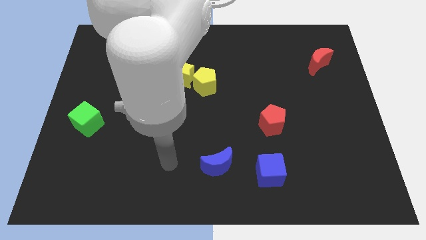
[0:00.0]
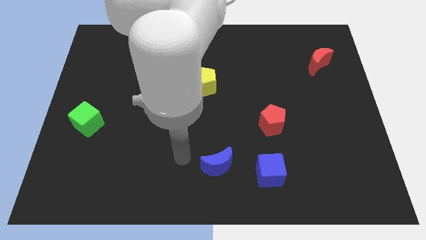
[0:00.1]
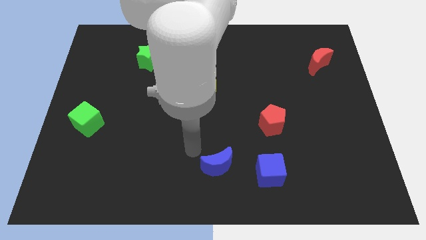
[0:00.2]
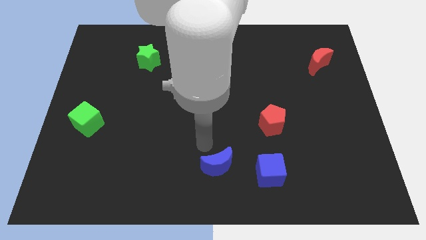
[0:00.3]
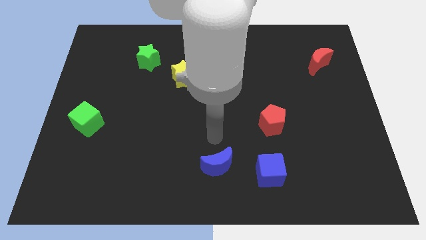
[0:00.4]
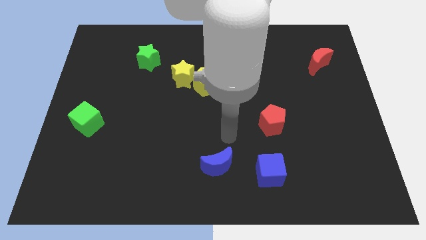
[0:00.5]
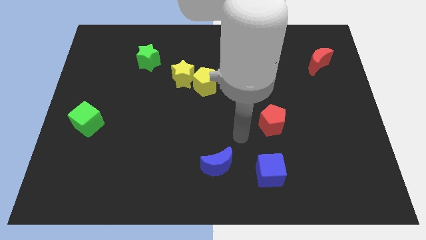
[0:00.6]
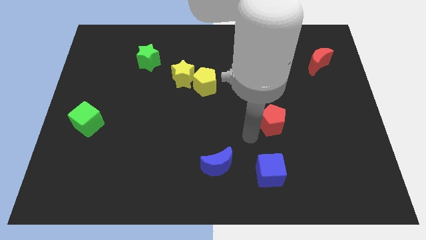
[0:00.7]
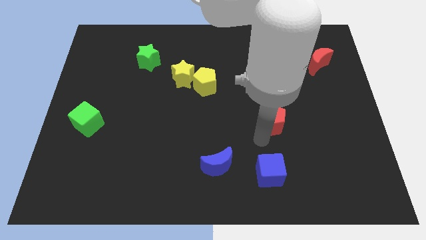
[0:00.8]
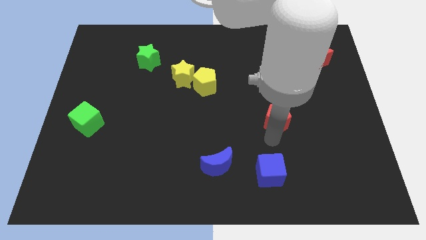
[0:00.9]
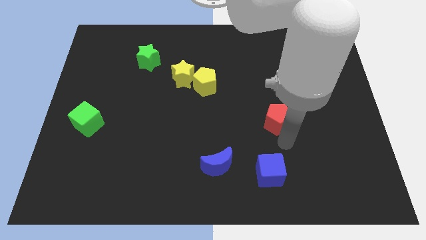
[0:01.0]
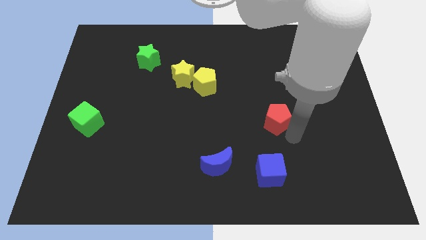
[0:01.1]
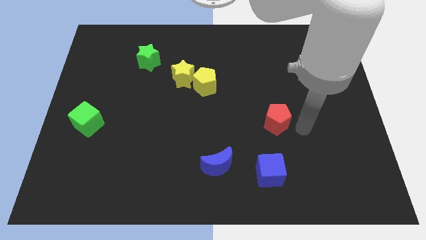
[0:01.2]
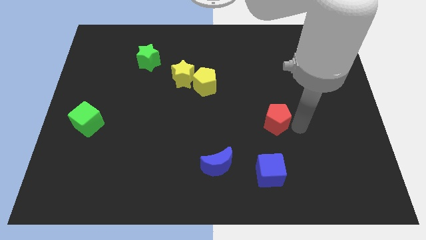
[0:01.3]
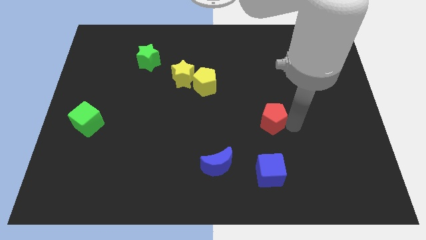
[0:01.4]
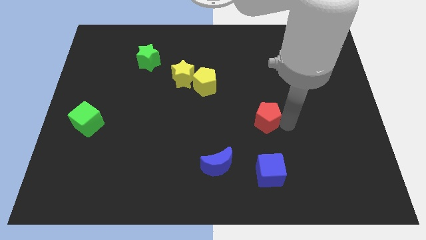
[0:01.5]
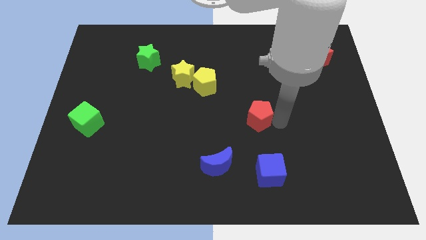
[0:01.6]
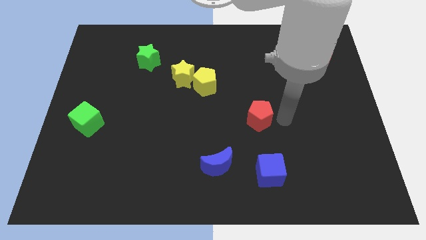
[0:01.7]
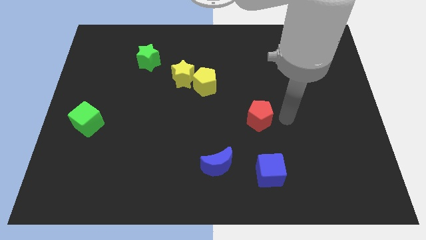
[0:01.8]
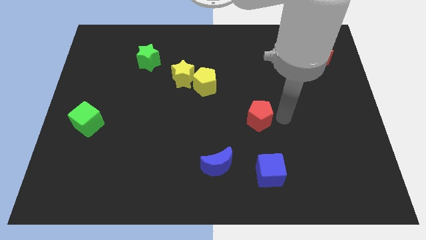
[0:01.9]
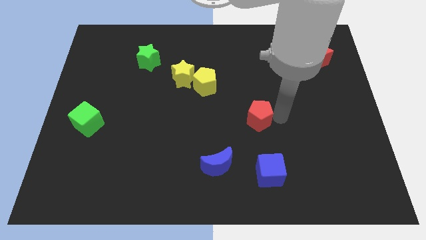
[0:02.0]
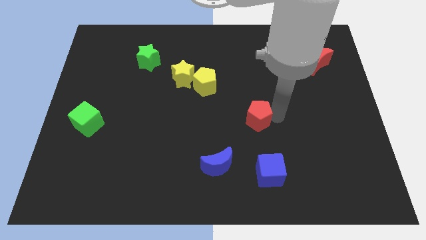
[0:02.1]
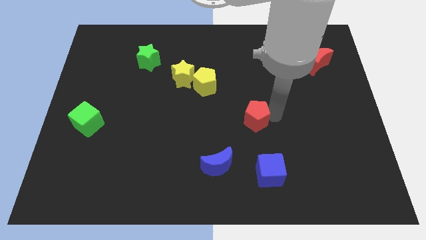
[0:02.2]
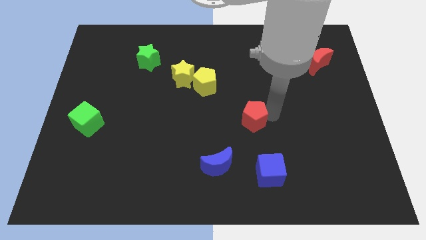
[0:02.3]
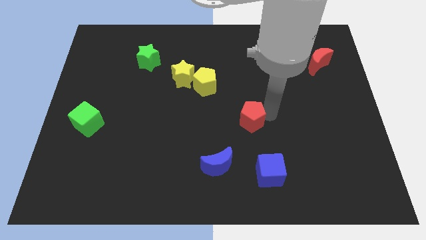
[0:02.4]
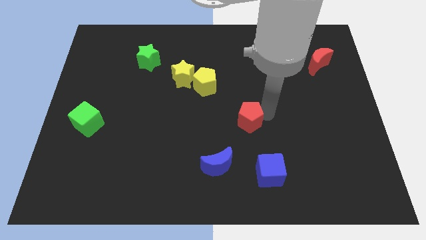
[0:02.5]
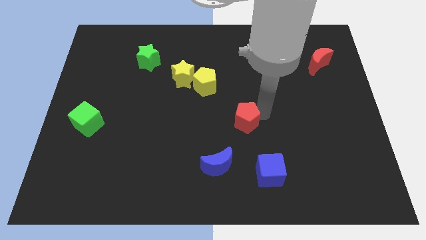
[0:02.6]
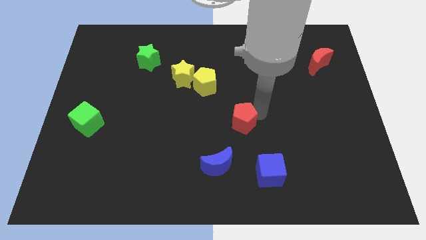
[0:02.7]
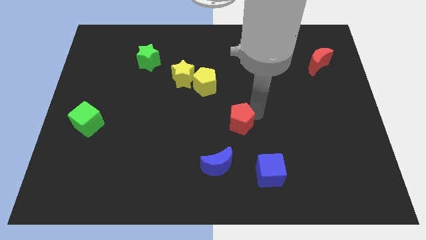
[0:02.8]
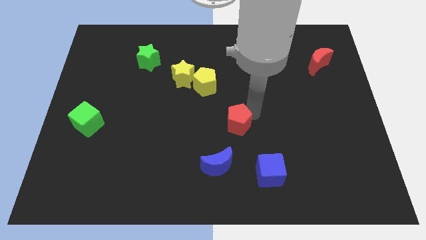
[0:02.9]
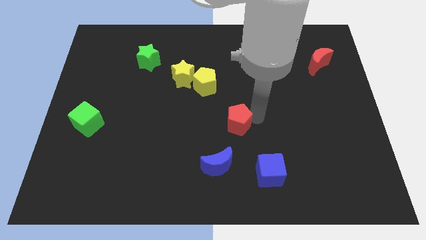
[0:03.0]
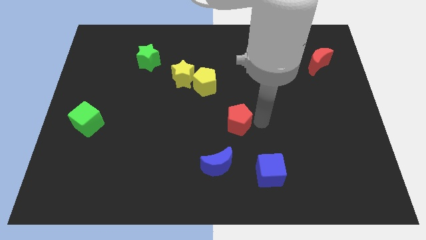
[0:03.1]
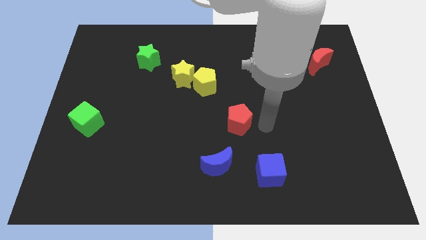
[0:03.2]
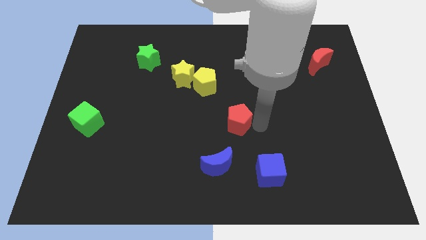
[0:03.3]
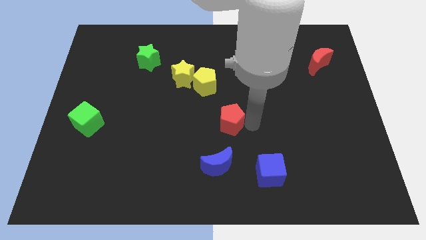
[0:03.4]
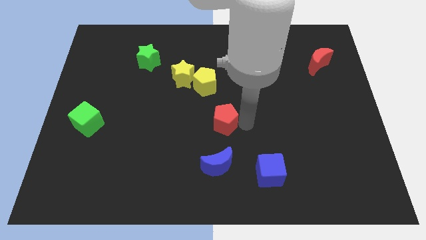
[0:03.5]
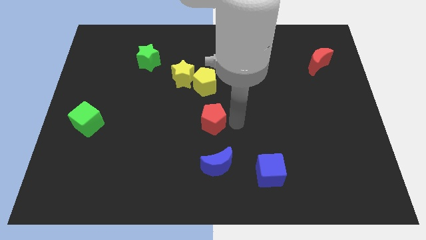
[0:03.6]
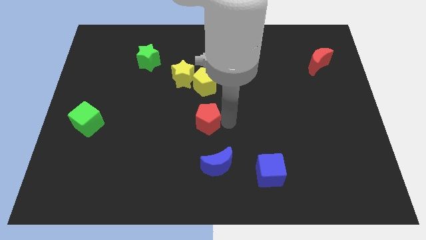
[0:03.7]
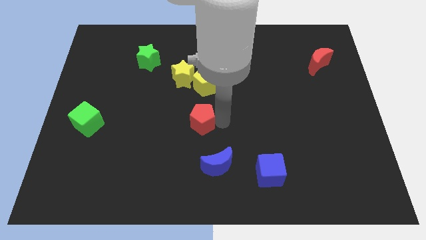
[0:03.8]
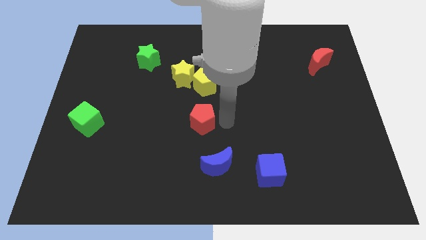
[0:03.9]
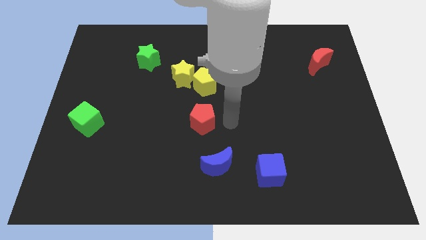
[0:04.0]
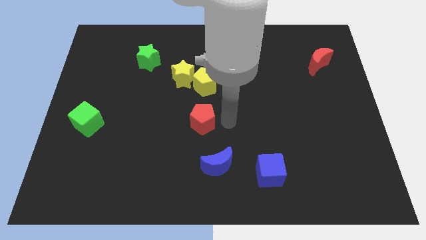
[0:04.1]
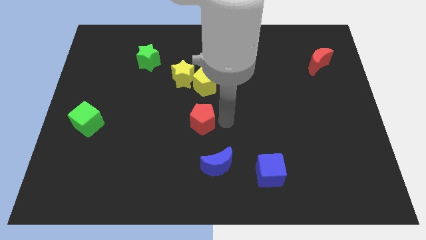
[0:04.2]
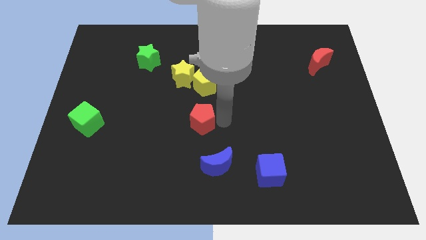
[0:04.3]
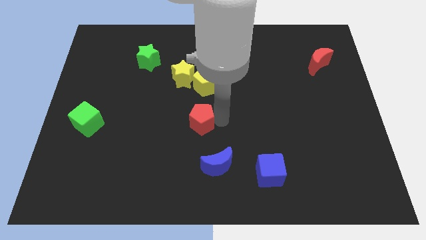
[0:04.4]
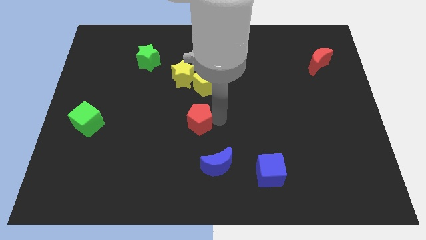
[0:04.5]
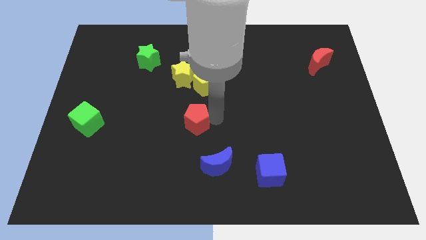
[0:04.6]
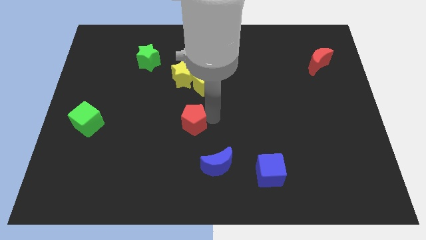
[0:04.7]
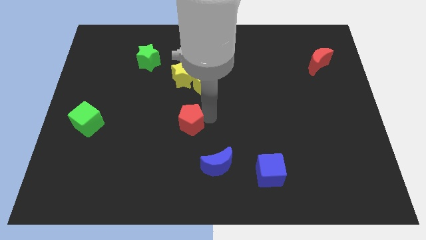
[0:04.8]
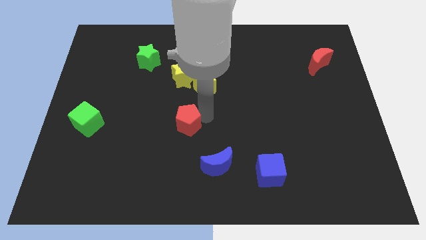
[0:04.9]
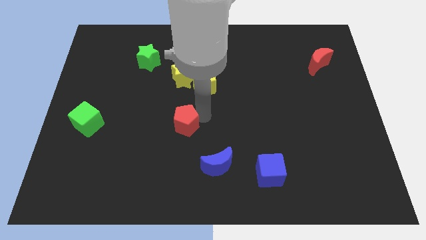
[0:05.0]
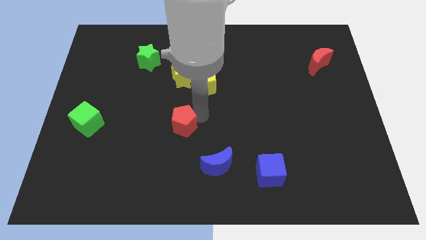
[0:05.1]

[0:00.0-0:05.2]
move the red pentagon to the left

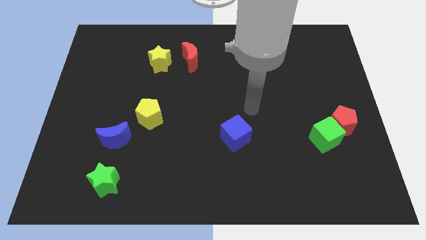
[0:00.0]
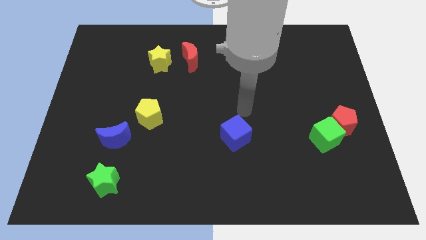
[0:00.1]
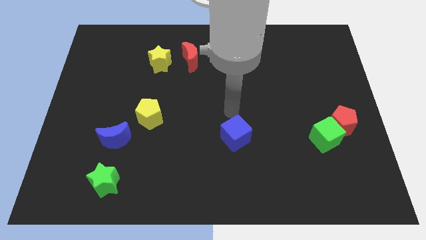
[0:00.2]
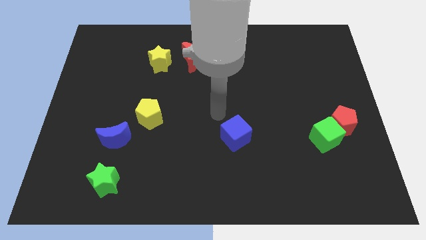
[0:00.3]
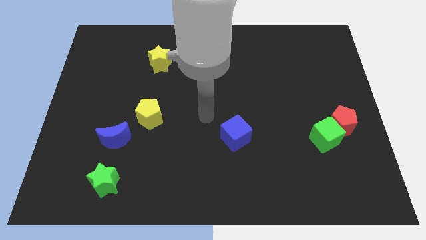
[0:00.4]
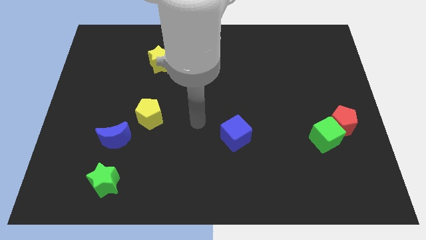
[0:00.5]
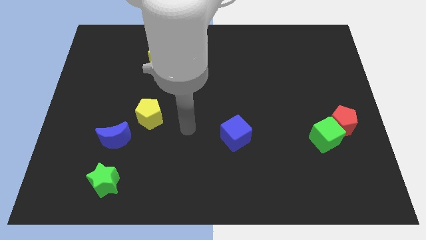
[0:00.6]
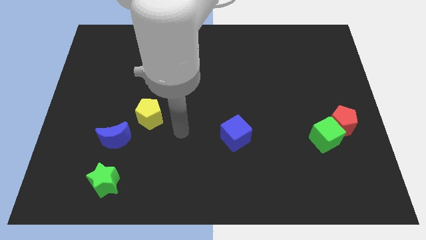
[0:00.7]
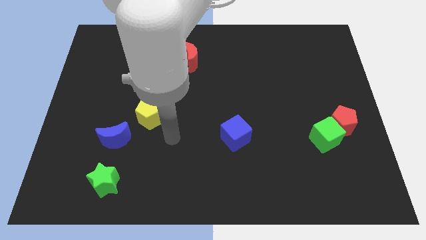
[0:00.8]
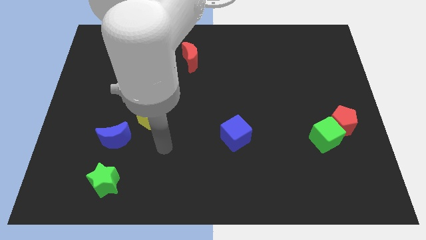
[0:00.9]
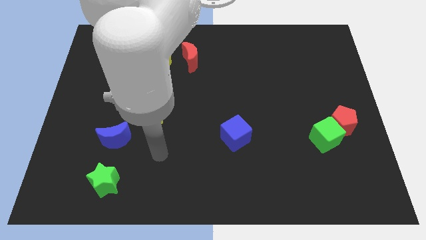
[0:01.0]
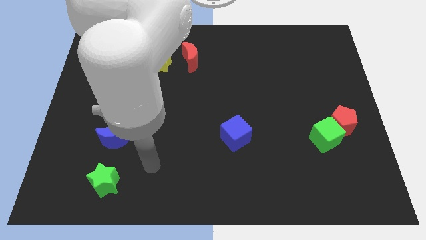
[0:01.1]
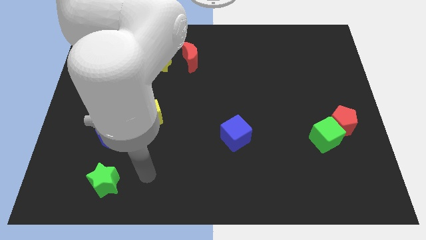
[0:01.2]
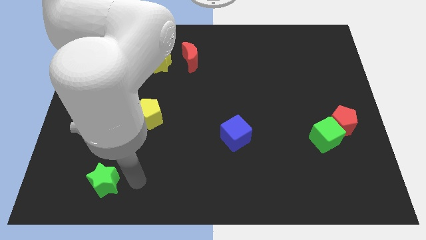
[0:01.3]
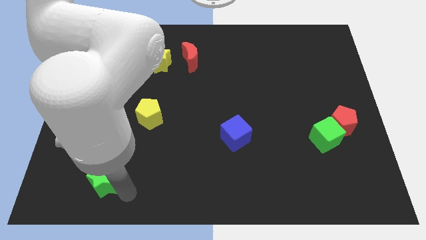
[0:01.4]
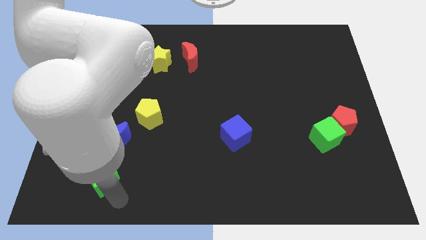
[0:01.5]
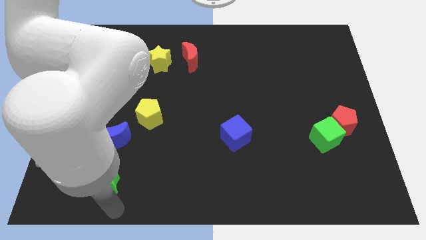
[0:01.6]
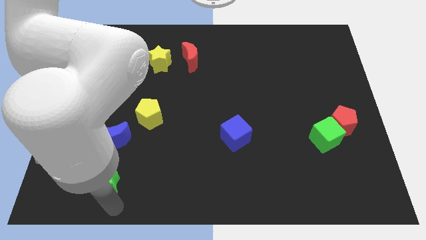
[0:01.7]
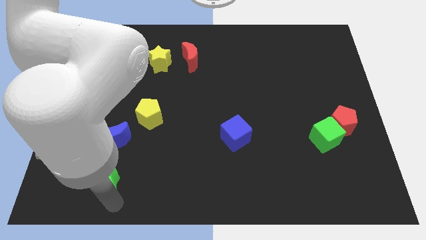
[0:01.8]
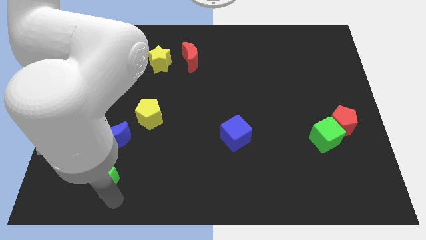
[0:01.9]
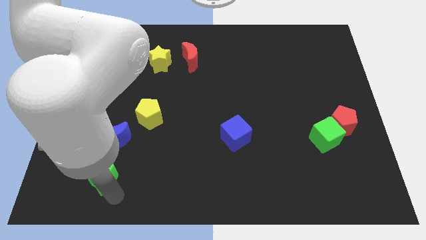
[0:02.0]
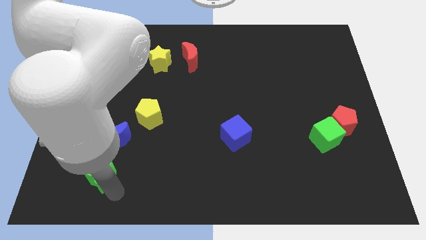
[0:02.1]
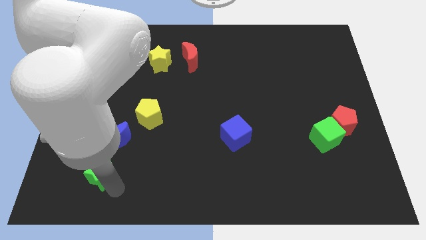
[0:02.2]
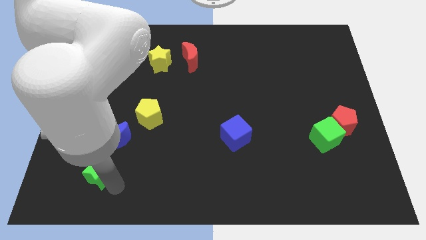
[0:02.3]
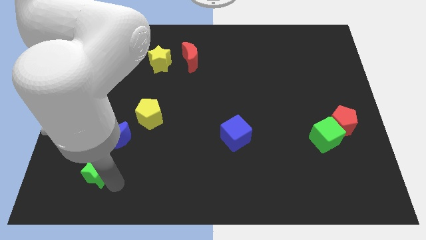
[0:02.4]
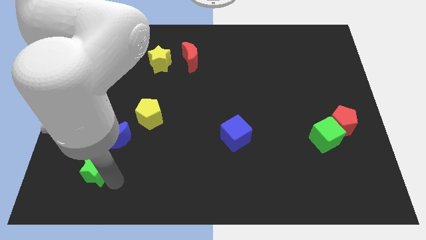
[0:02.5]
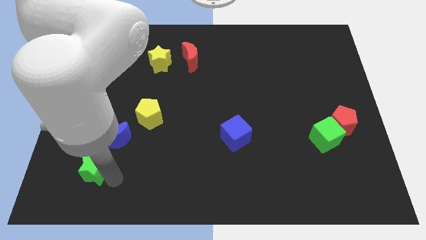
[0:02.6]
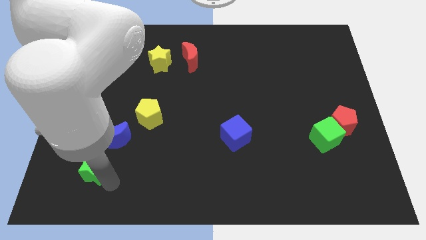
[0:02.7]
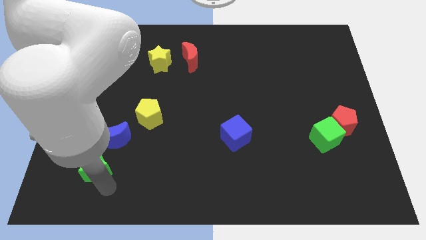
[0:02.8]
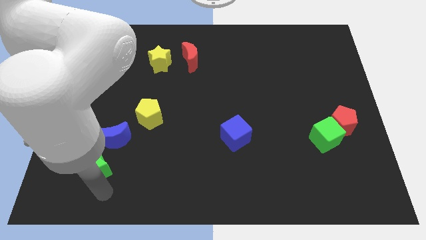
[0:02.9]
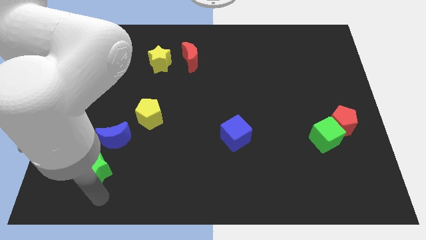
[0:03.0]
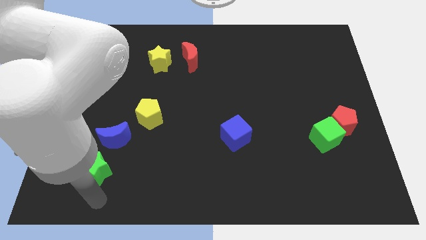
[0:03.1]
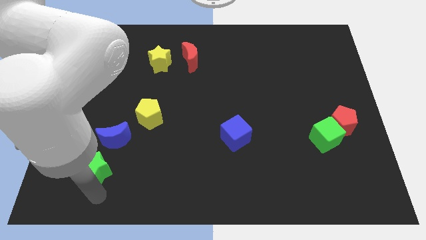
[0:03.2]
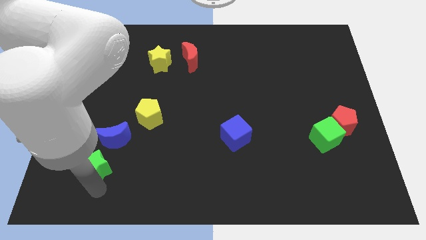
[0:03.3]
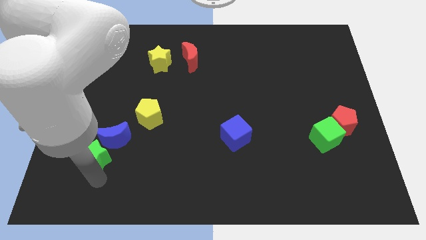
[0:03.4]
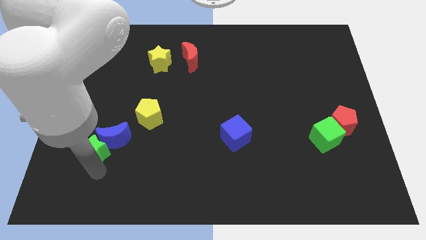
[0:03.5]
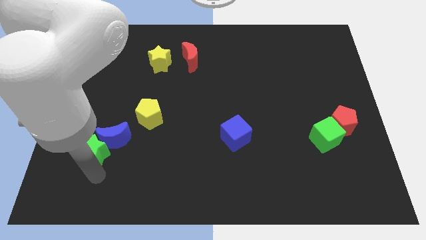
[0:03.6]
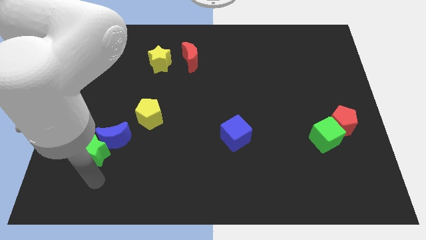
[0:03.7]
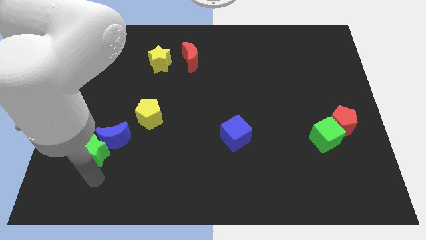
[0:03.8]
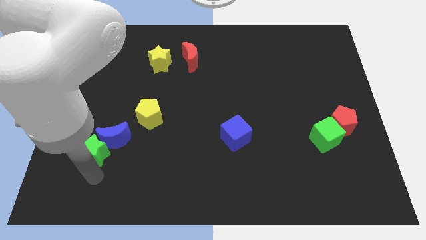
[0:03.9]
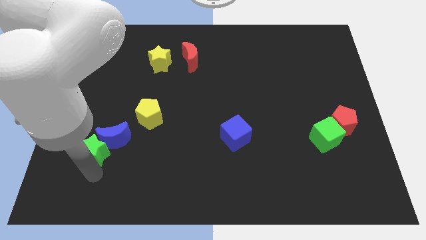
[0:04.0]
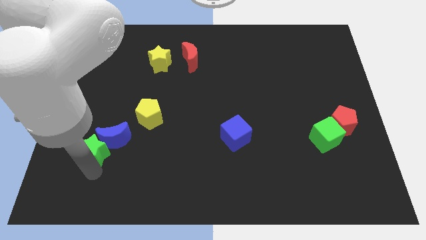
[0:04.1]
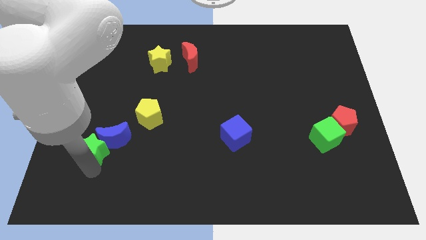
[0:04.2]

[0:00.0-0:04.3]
slightly move the green star upwards
